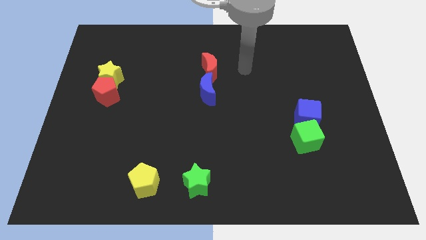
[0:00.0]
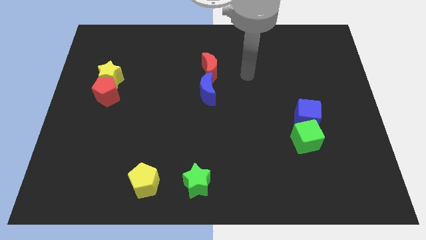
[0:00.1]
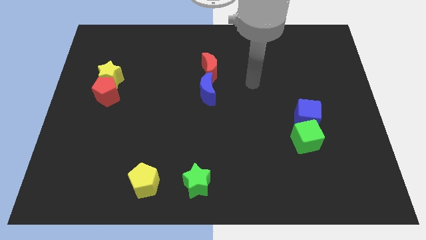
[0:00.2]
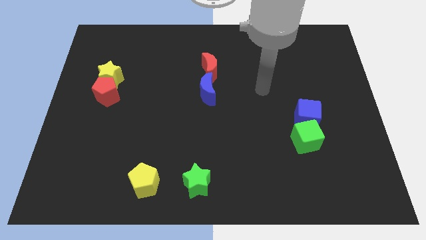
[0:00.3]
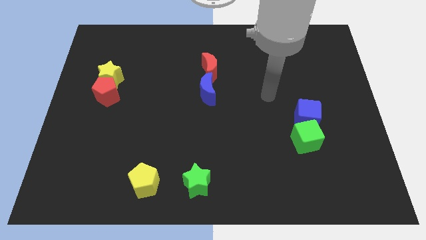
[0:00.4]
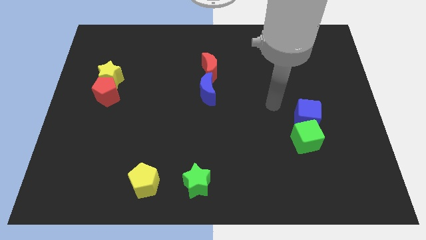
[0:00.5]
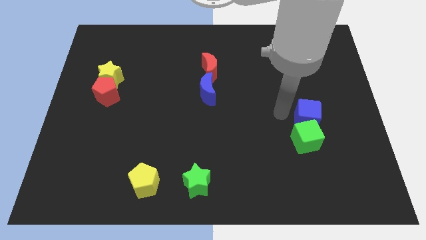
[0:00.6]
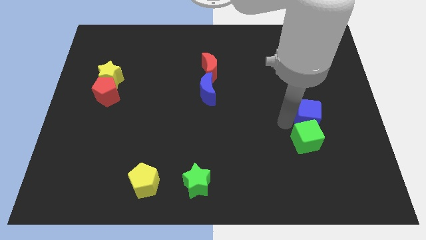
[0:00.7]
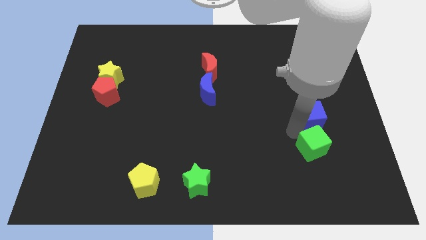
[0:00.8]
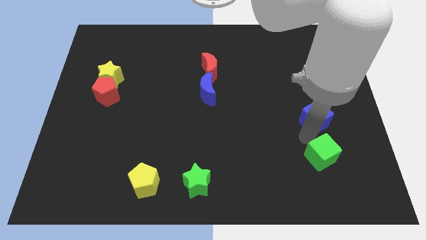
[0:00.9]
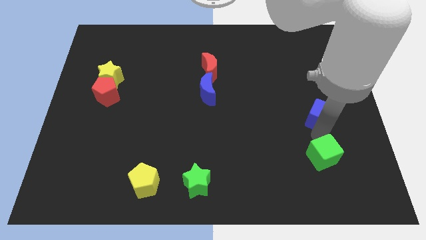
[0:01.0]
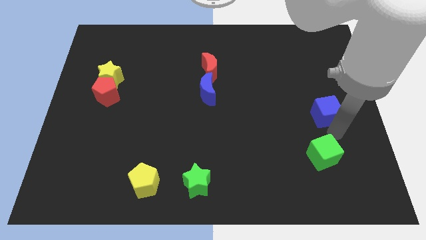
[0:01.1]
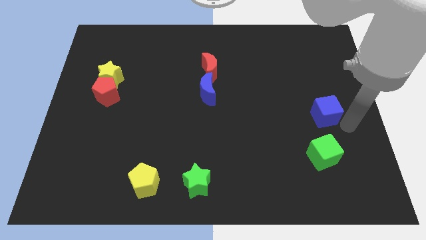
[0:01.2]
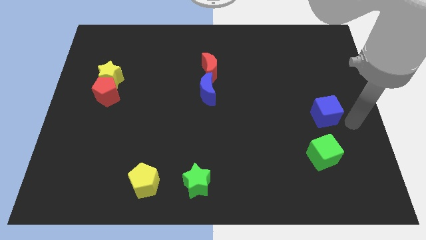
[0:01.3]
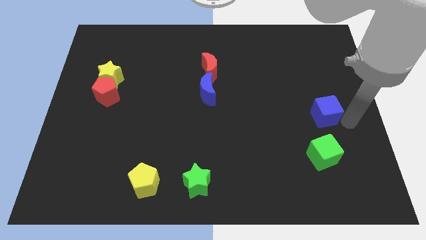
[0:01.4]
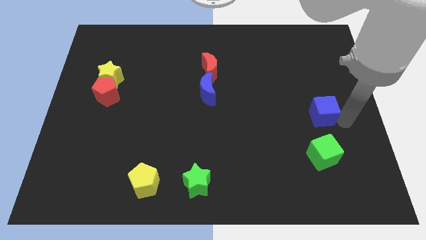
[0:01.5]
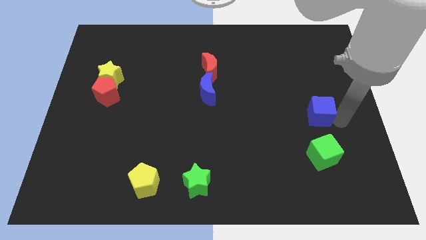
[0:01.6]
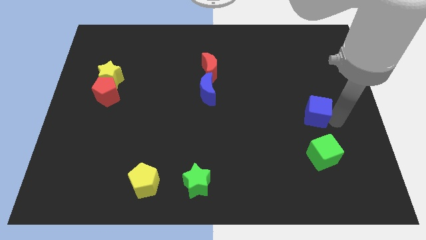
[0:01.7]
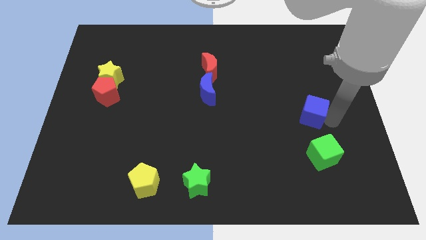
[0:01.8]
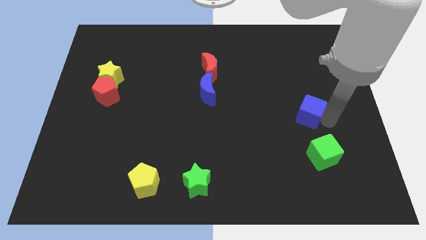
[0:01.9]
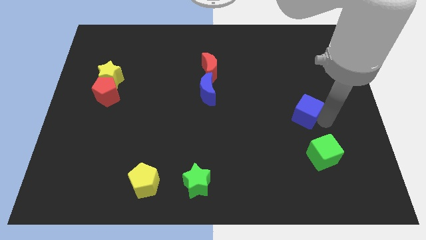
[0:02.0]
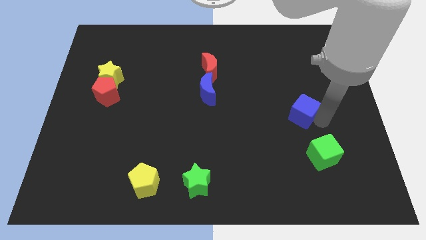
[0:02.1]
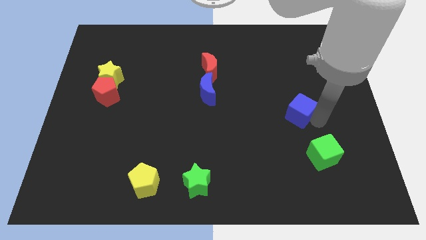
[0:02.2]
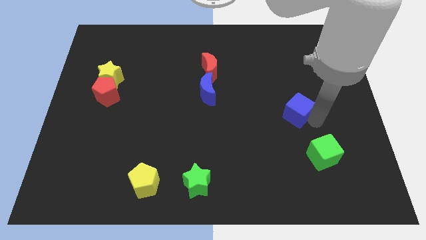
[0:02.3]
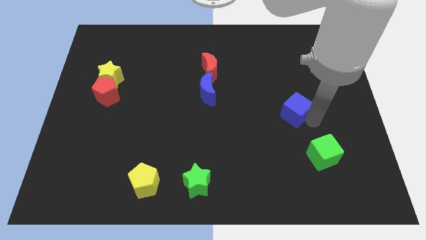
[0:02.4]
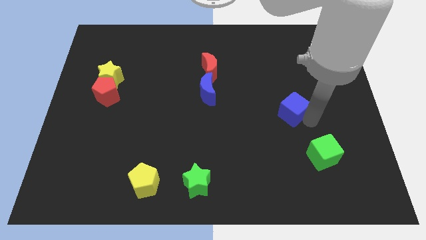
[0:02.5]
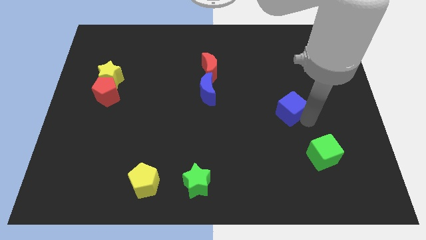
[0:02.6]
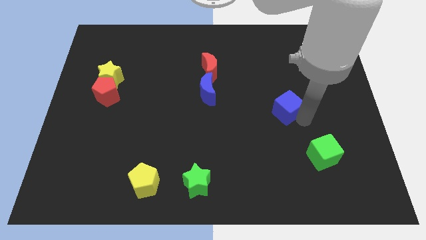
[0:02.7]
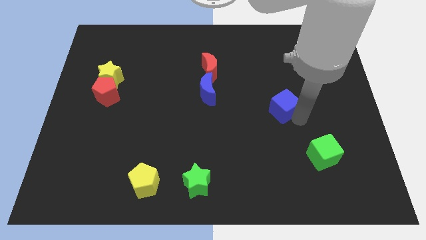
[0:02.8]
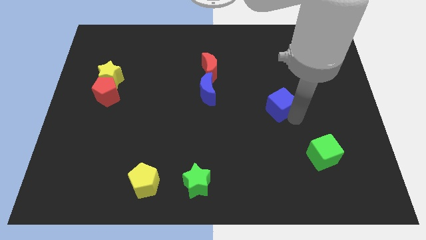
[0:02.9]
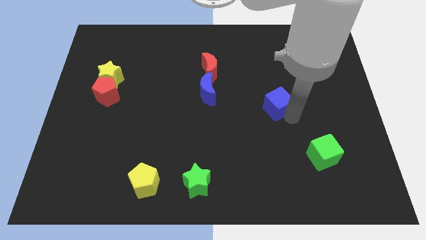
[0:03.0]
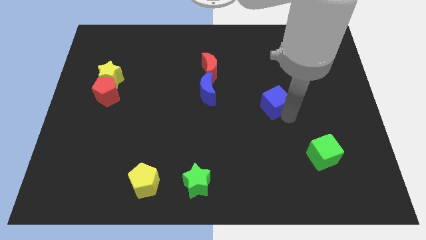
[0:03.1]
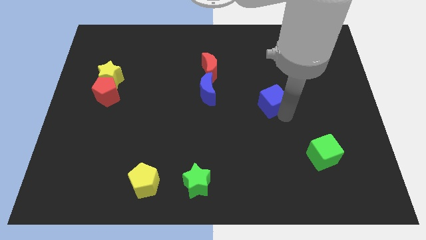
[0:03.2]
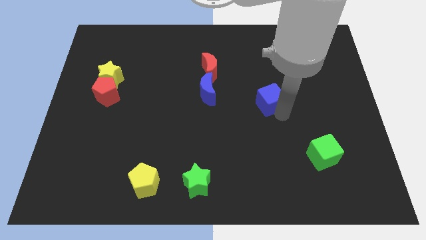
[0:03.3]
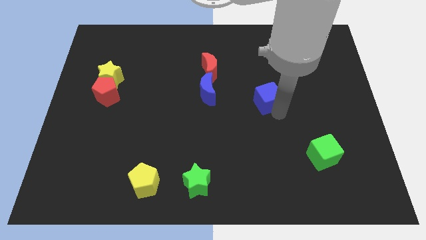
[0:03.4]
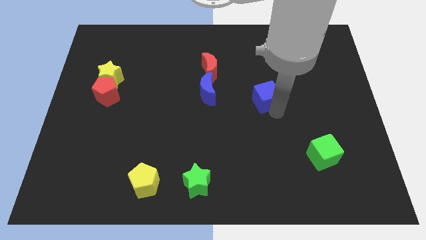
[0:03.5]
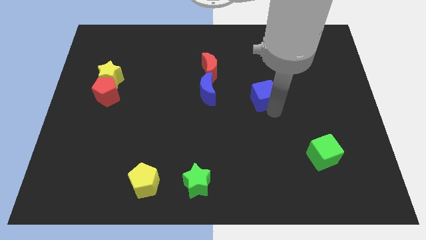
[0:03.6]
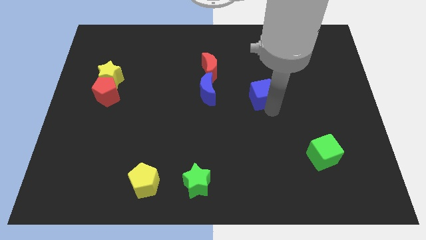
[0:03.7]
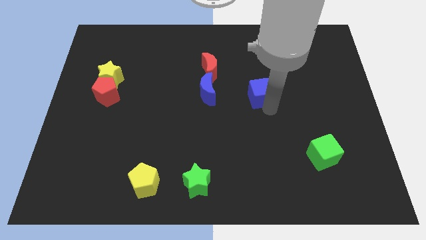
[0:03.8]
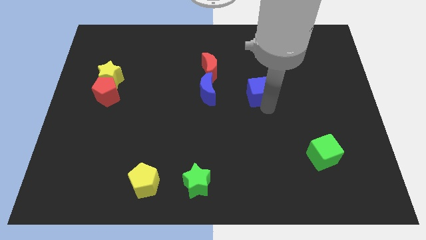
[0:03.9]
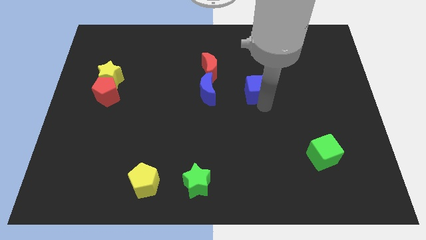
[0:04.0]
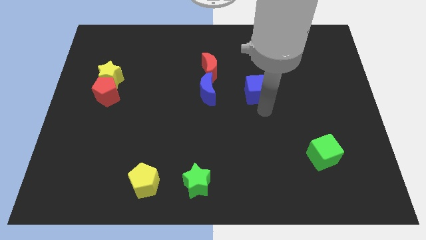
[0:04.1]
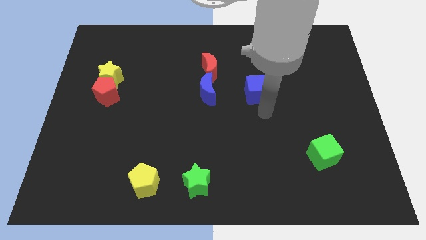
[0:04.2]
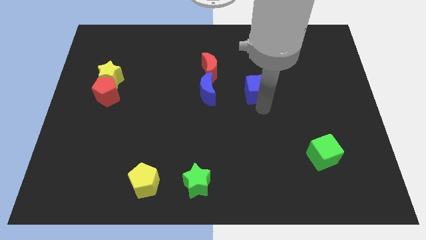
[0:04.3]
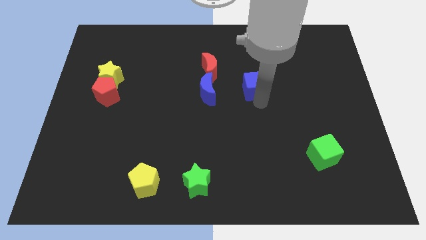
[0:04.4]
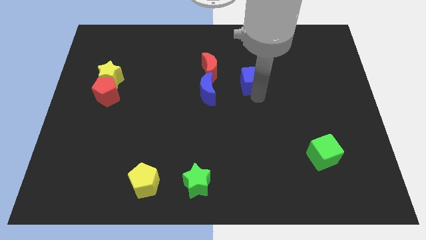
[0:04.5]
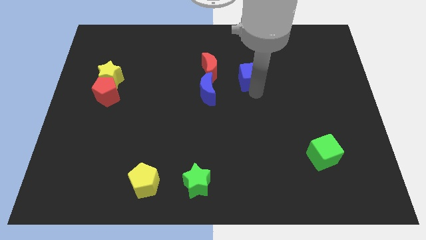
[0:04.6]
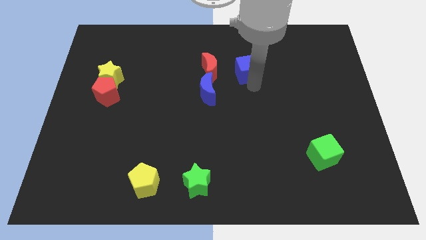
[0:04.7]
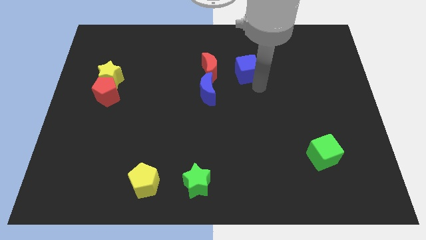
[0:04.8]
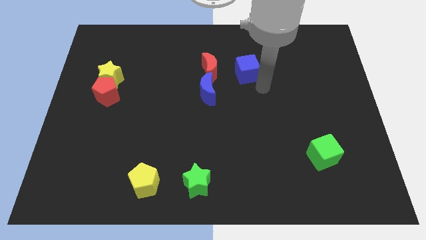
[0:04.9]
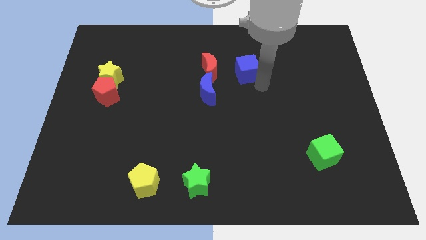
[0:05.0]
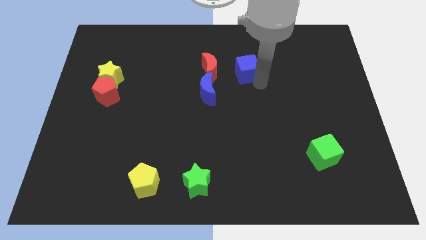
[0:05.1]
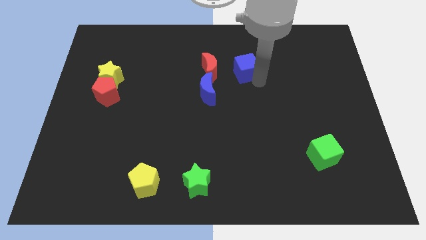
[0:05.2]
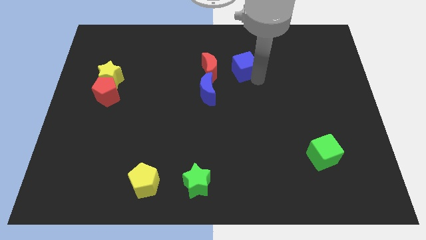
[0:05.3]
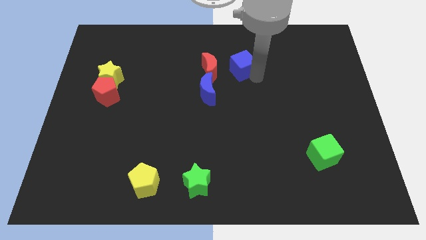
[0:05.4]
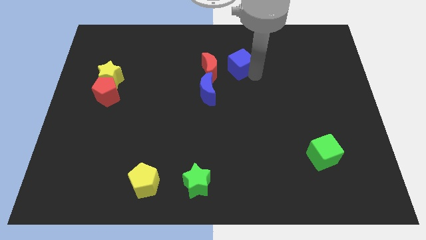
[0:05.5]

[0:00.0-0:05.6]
slide the blue cube to the top right side of the red moon

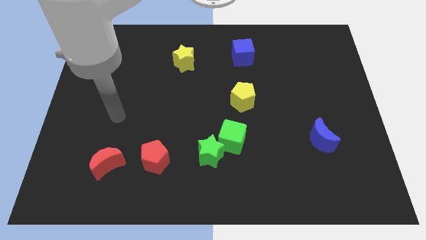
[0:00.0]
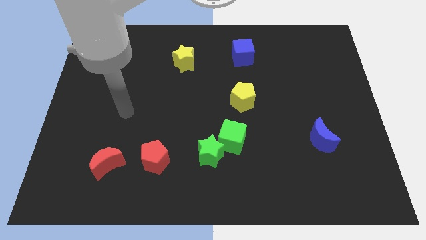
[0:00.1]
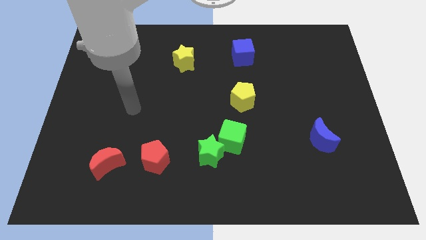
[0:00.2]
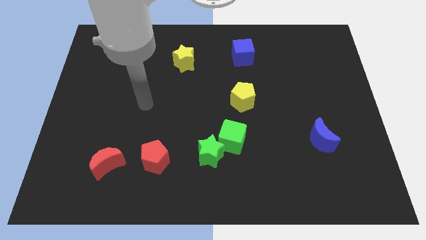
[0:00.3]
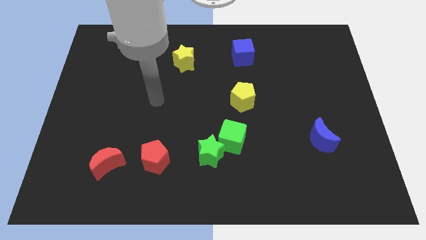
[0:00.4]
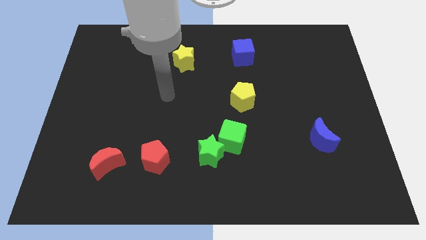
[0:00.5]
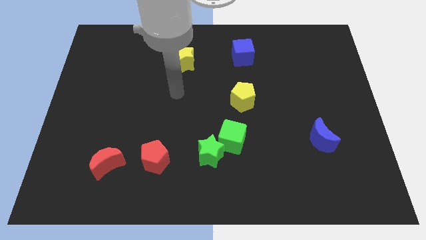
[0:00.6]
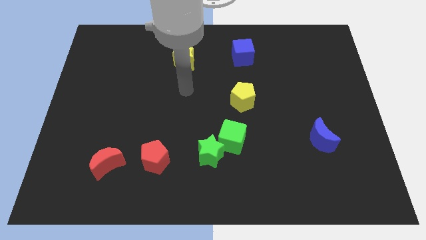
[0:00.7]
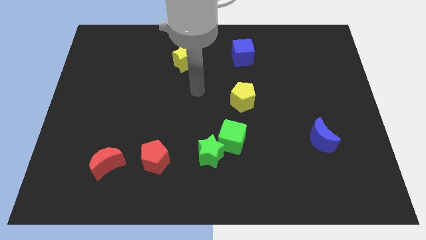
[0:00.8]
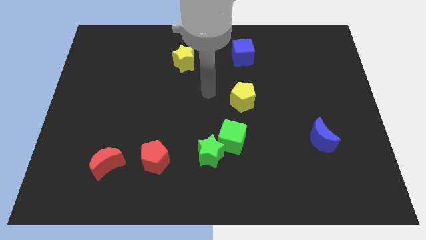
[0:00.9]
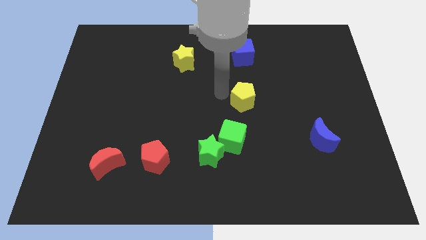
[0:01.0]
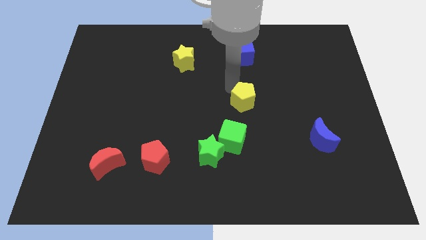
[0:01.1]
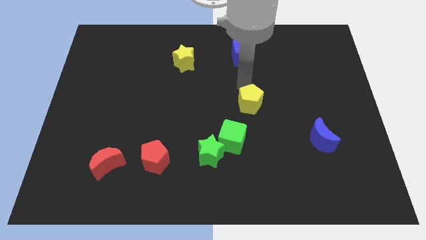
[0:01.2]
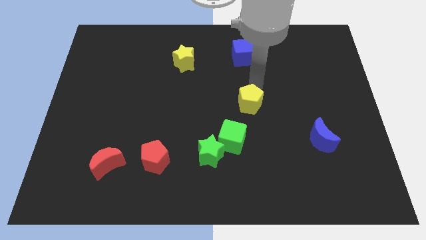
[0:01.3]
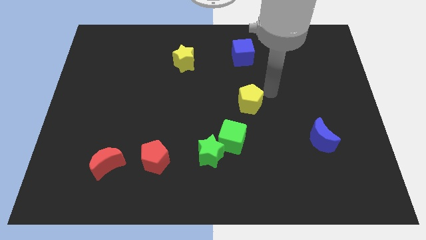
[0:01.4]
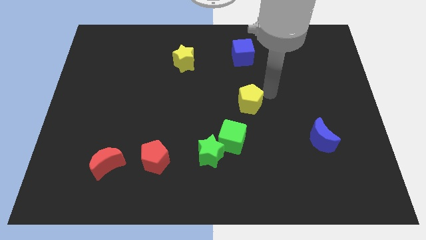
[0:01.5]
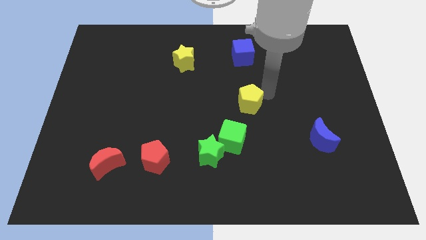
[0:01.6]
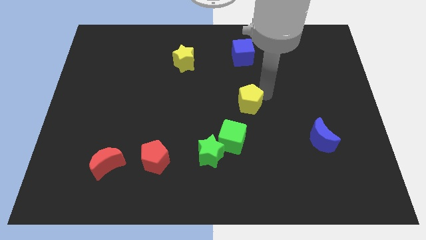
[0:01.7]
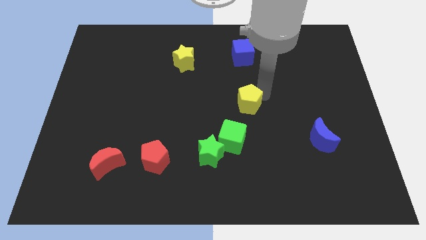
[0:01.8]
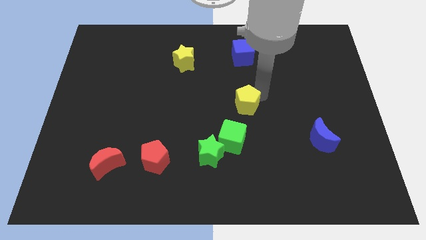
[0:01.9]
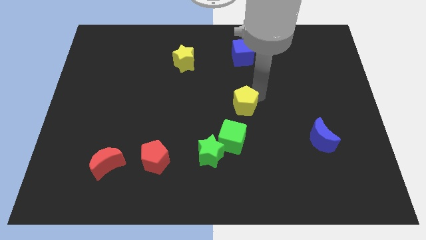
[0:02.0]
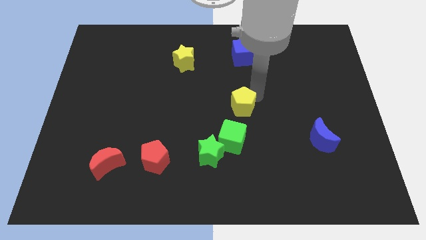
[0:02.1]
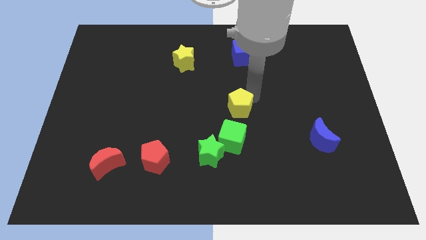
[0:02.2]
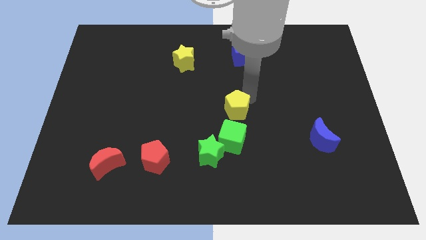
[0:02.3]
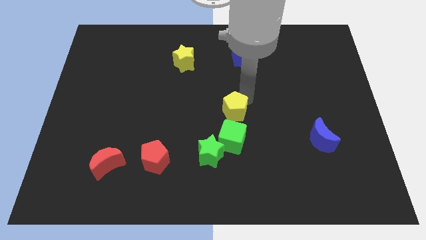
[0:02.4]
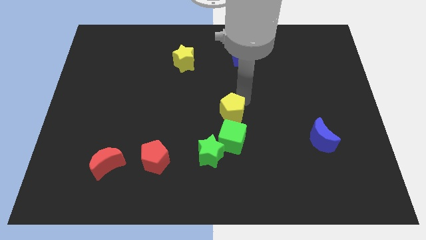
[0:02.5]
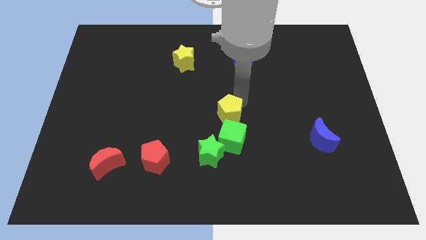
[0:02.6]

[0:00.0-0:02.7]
push the yellow pentagon diagonally up and to the left of the green cube
